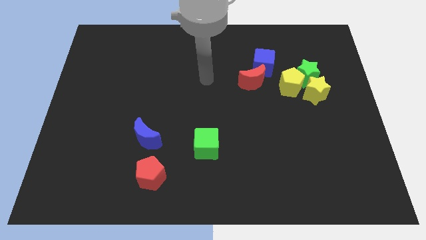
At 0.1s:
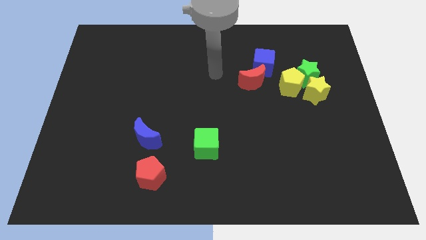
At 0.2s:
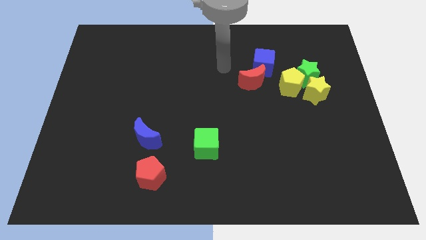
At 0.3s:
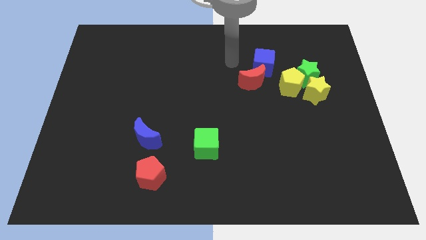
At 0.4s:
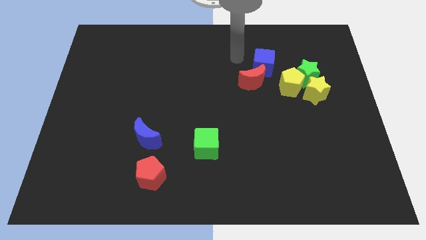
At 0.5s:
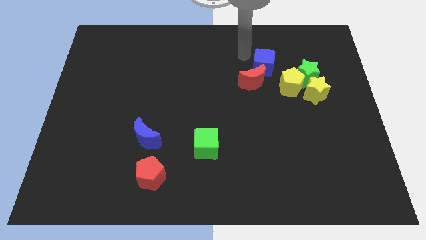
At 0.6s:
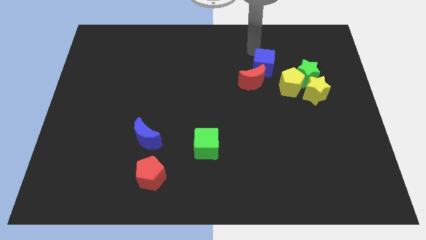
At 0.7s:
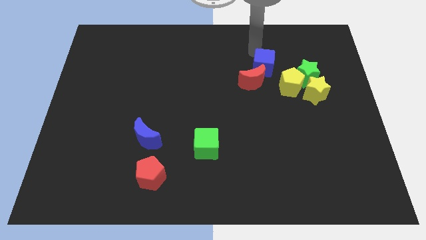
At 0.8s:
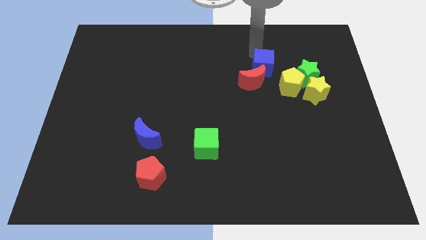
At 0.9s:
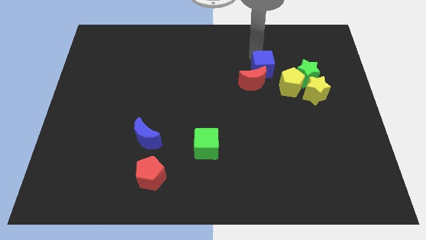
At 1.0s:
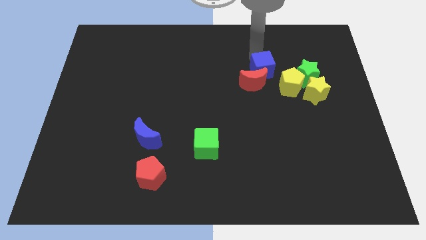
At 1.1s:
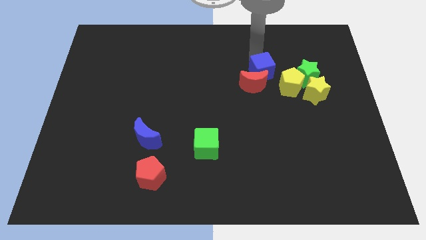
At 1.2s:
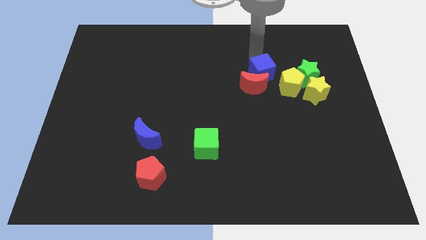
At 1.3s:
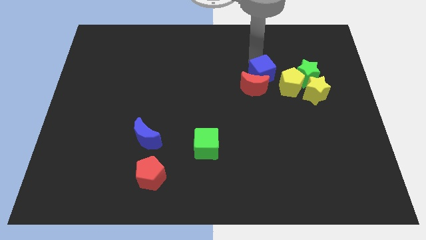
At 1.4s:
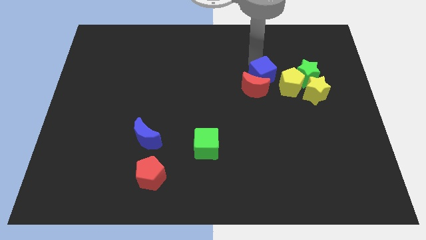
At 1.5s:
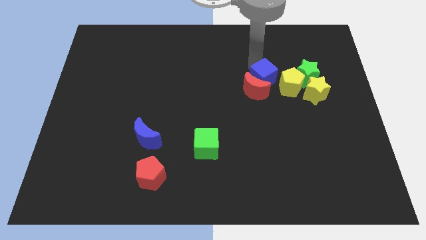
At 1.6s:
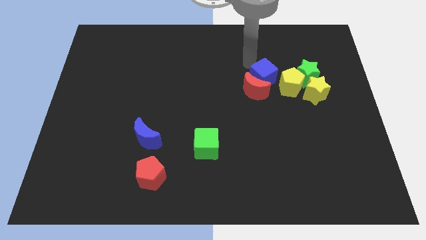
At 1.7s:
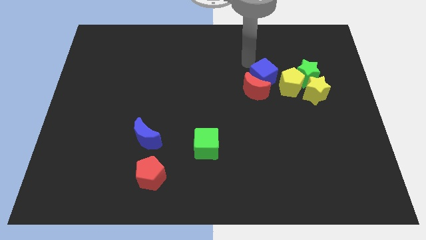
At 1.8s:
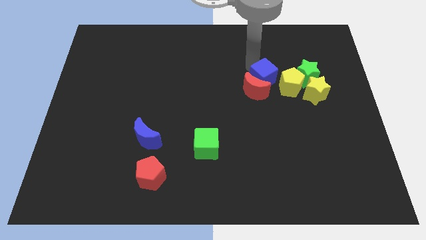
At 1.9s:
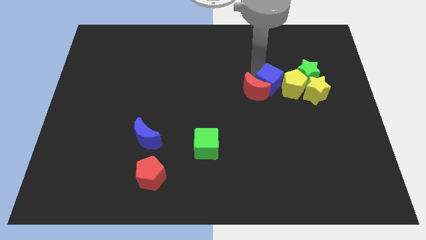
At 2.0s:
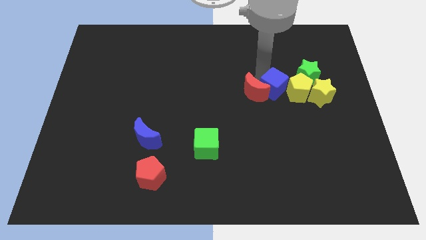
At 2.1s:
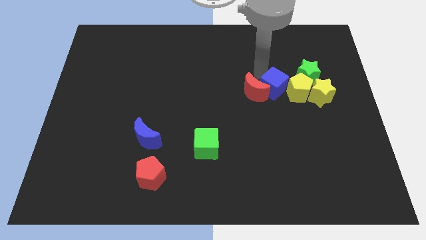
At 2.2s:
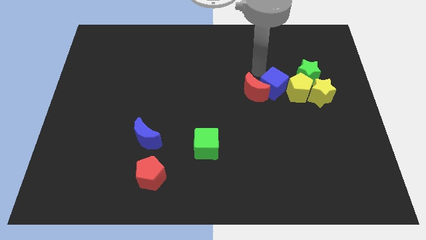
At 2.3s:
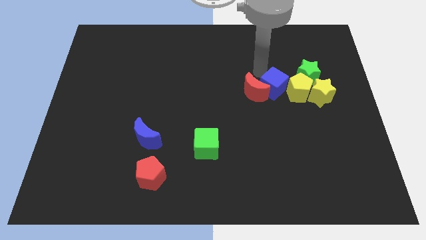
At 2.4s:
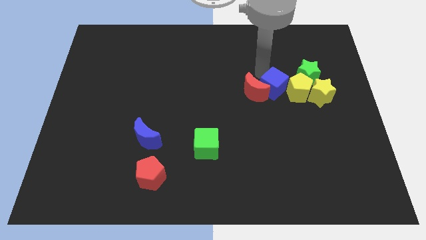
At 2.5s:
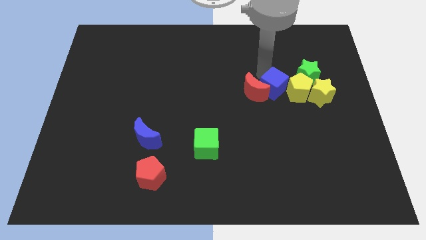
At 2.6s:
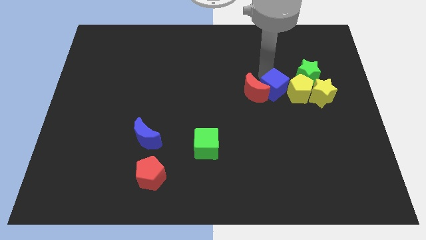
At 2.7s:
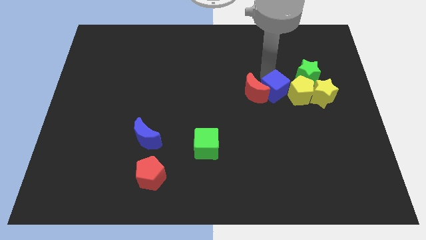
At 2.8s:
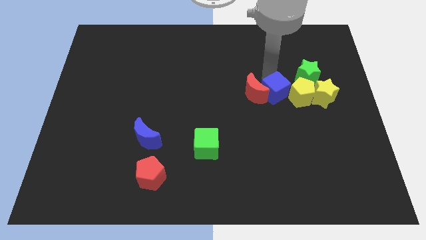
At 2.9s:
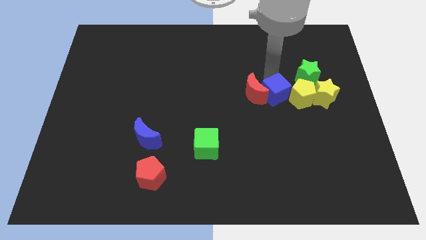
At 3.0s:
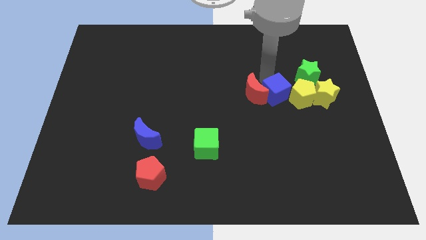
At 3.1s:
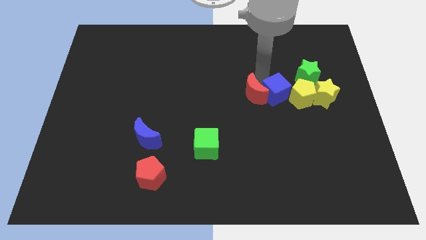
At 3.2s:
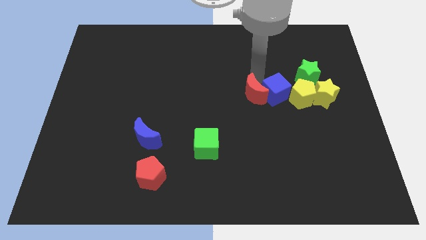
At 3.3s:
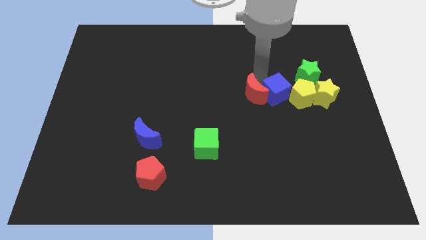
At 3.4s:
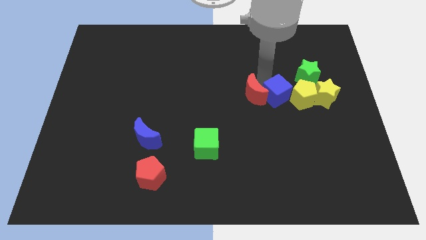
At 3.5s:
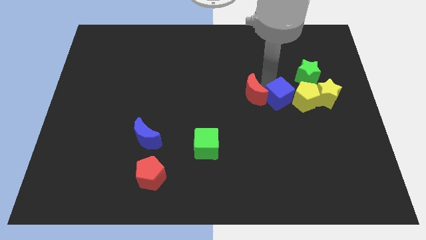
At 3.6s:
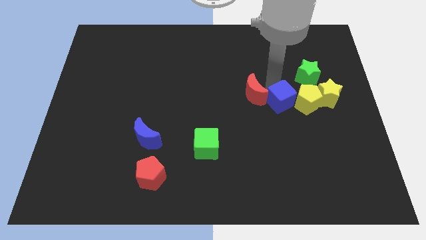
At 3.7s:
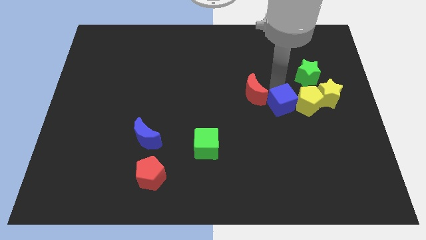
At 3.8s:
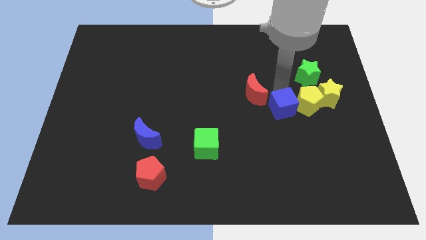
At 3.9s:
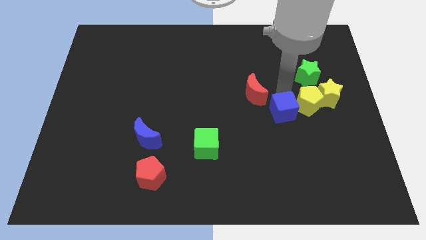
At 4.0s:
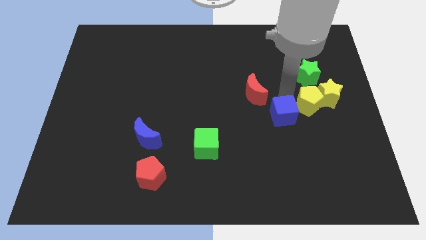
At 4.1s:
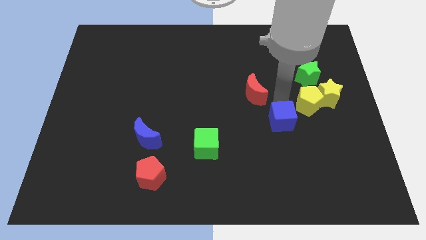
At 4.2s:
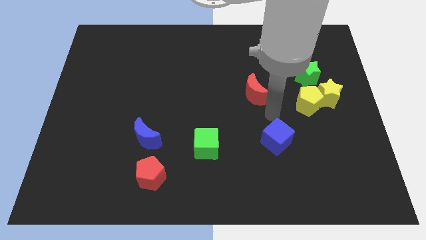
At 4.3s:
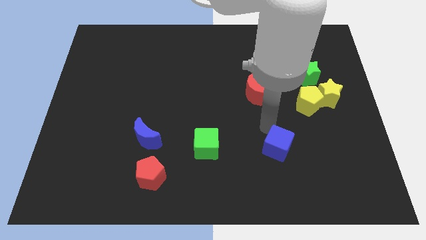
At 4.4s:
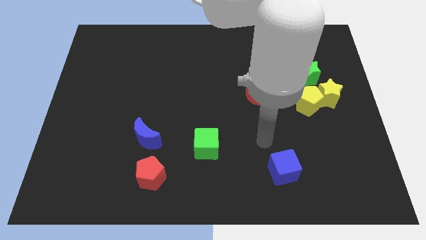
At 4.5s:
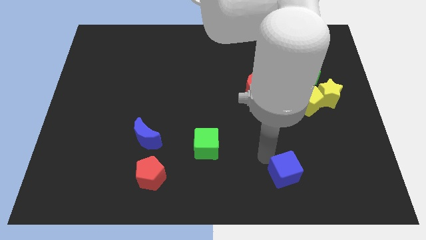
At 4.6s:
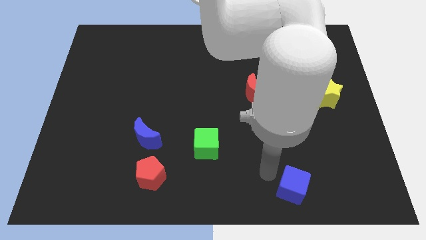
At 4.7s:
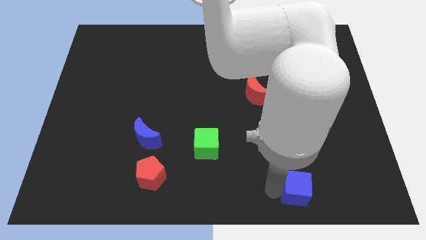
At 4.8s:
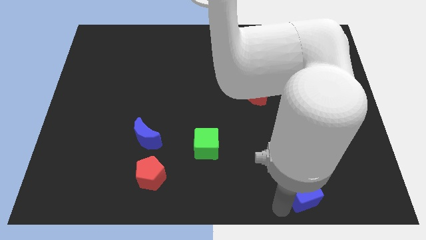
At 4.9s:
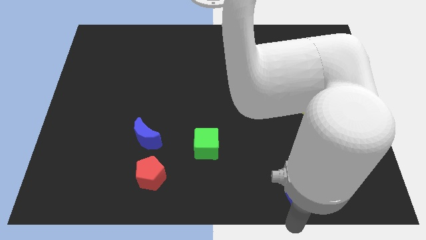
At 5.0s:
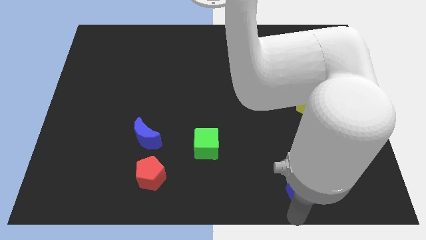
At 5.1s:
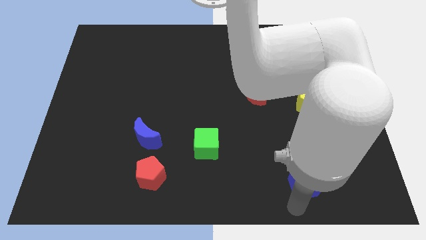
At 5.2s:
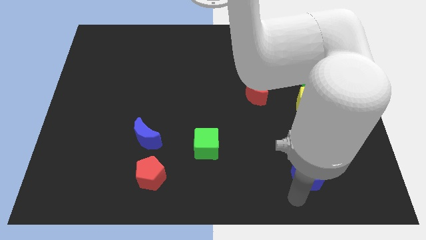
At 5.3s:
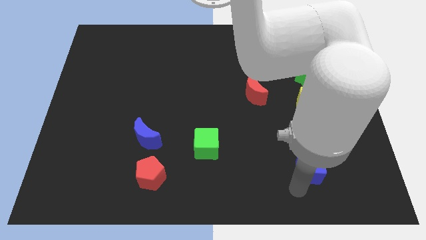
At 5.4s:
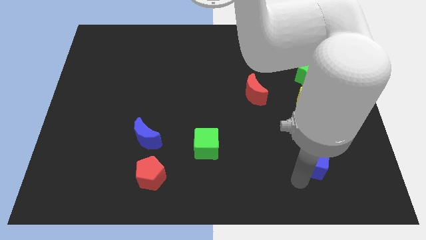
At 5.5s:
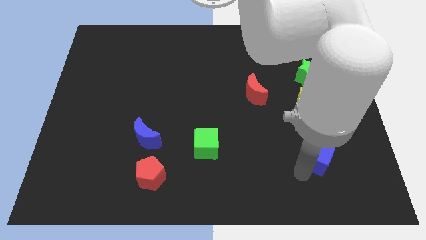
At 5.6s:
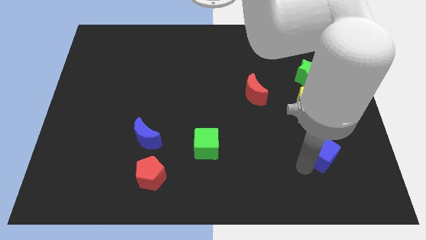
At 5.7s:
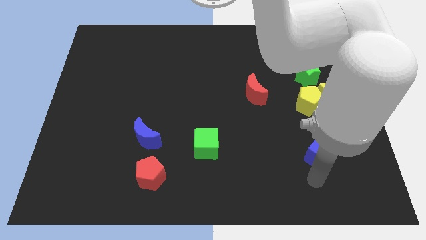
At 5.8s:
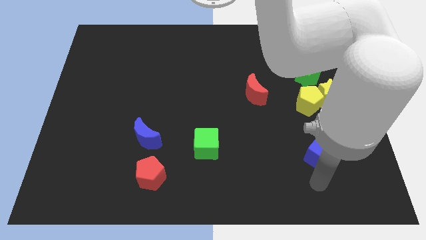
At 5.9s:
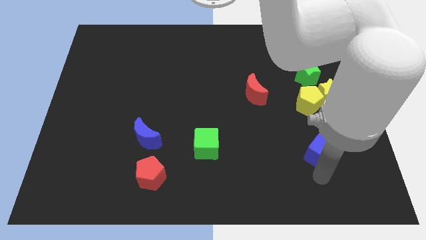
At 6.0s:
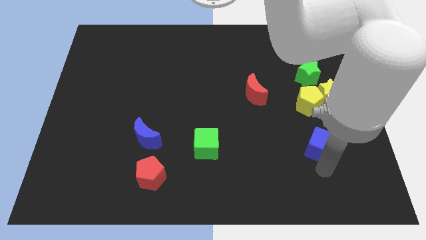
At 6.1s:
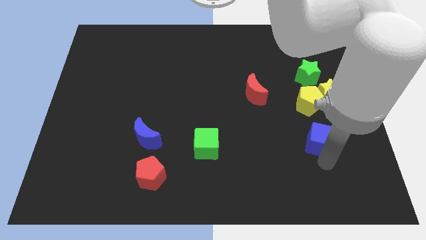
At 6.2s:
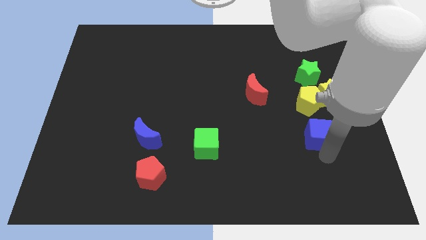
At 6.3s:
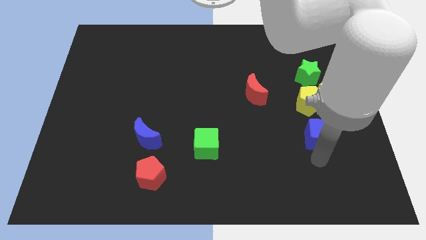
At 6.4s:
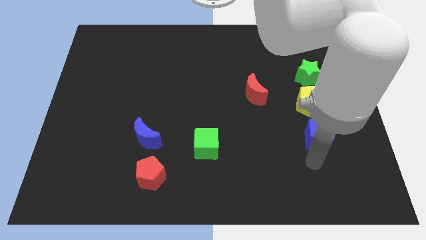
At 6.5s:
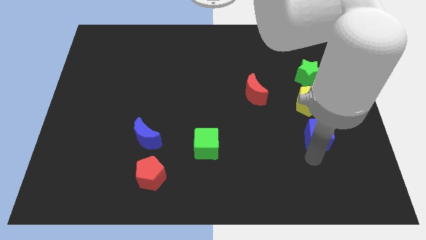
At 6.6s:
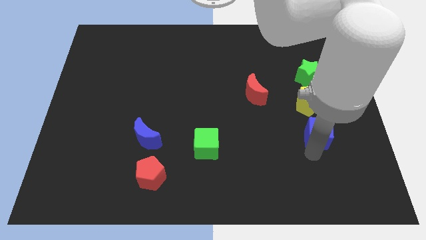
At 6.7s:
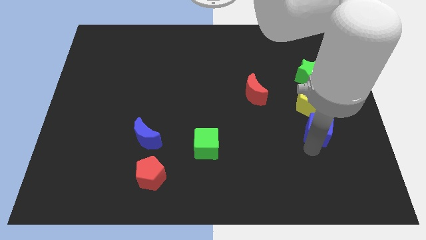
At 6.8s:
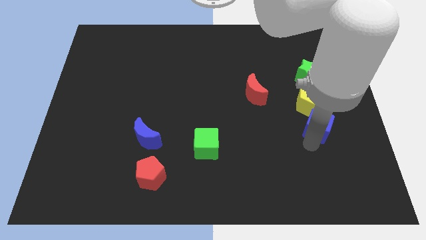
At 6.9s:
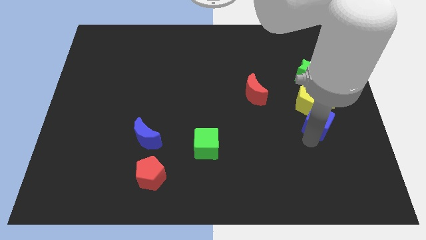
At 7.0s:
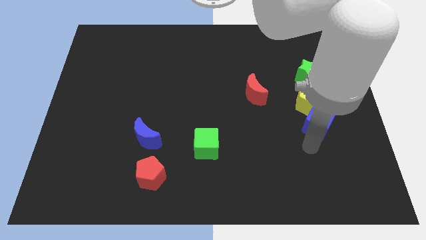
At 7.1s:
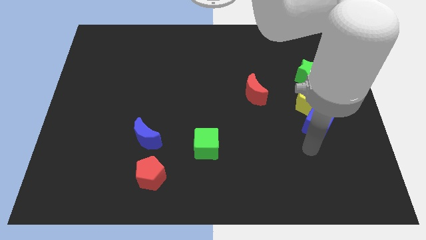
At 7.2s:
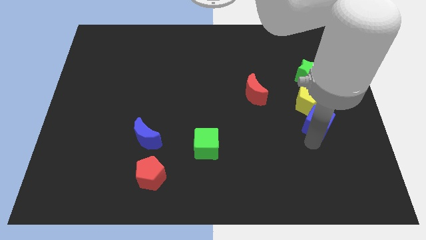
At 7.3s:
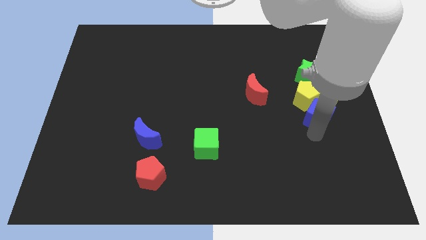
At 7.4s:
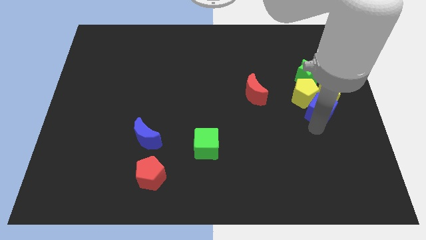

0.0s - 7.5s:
put the blue cube next to the yellow star

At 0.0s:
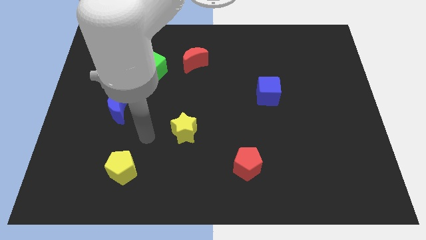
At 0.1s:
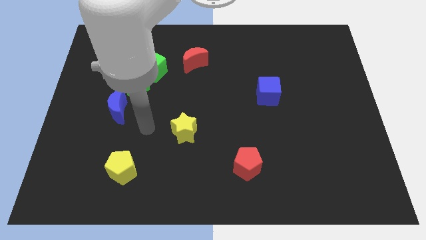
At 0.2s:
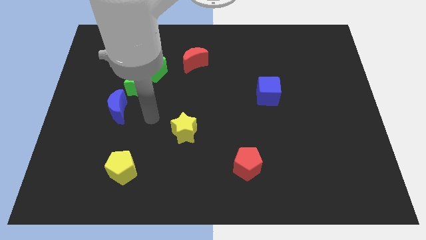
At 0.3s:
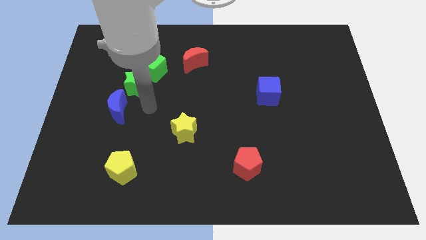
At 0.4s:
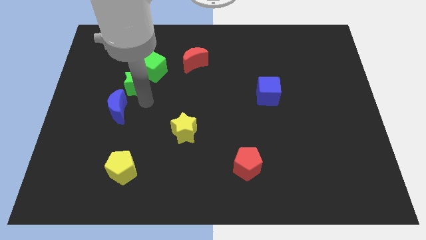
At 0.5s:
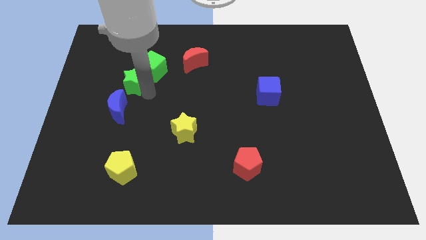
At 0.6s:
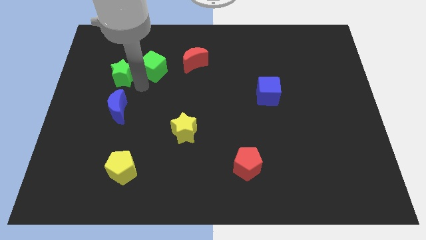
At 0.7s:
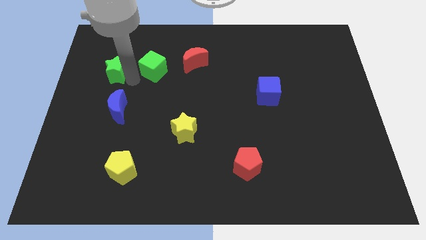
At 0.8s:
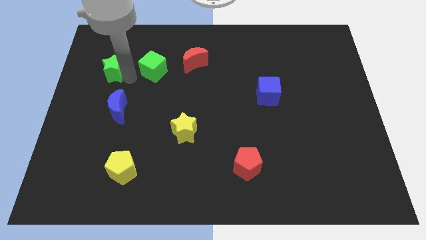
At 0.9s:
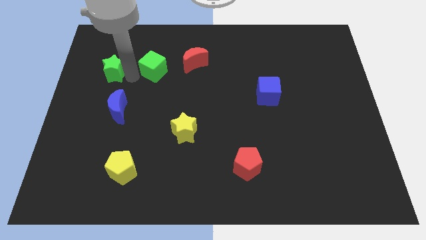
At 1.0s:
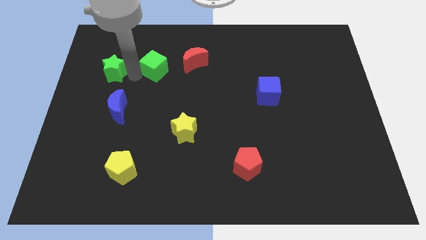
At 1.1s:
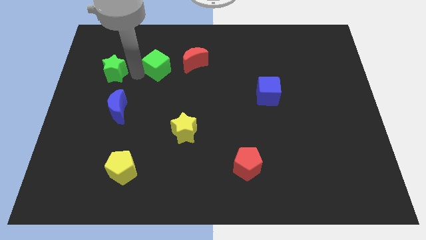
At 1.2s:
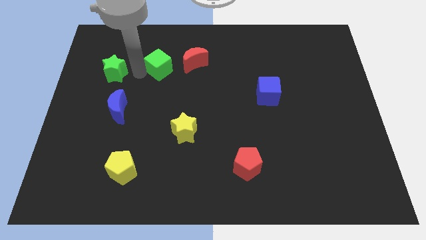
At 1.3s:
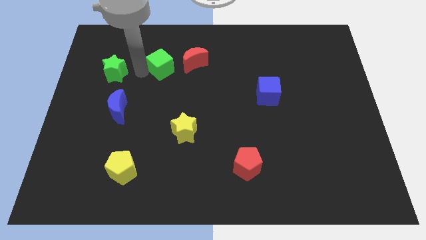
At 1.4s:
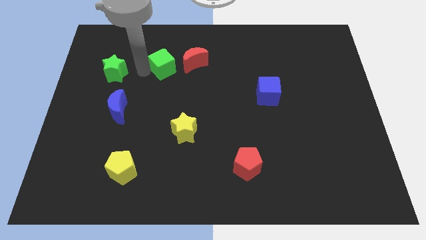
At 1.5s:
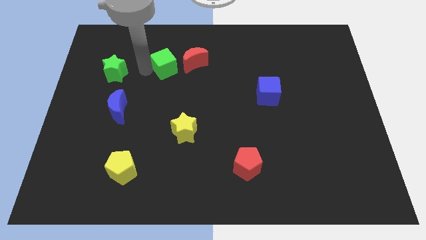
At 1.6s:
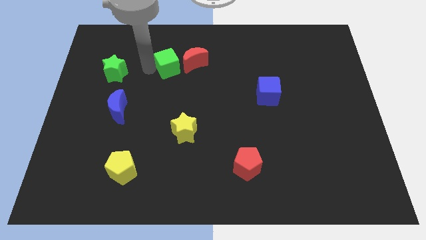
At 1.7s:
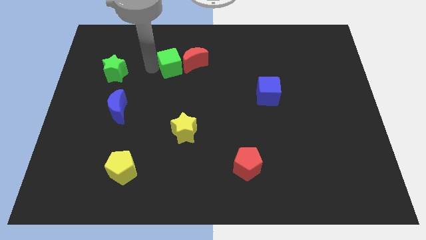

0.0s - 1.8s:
move the green cube close to the red moon
